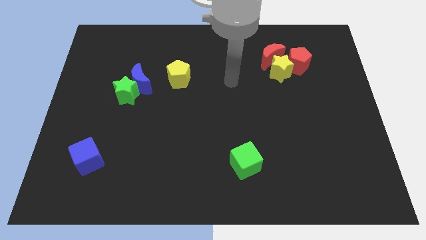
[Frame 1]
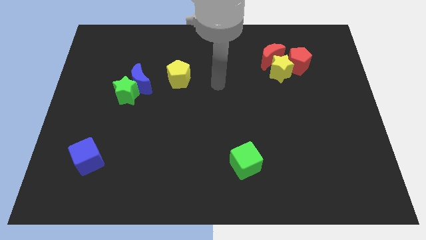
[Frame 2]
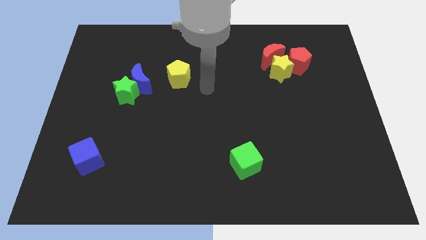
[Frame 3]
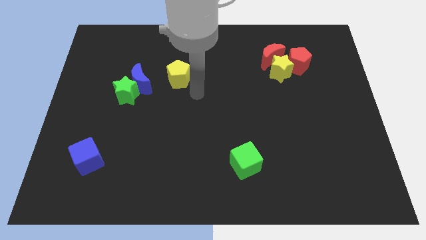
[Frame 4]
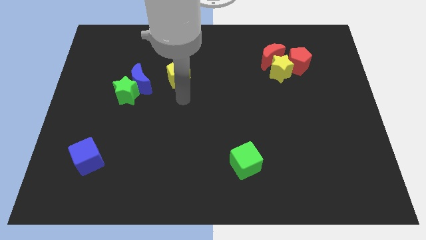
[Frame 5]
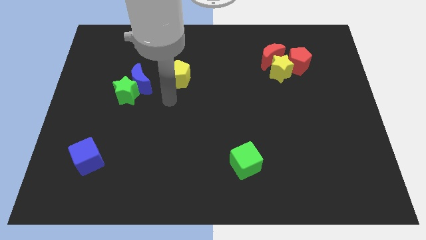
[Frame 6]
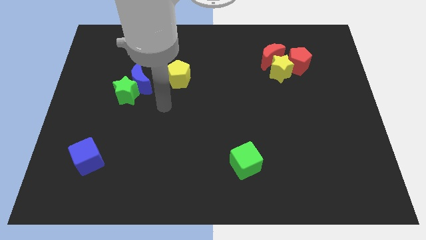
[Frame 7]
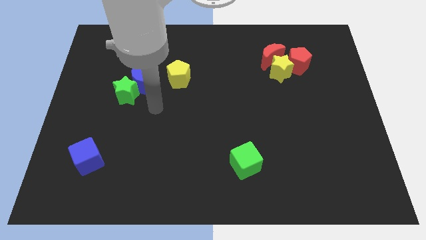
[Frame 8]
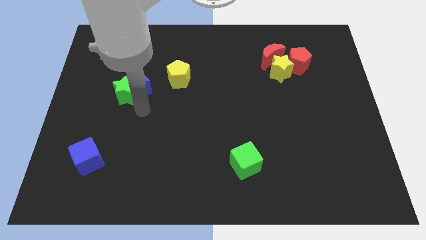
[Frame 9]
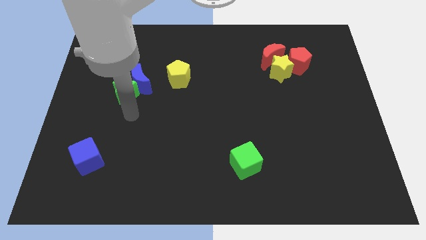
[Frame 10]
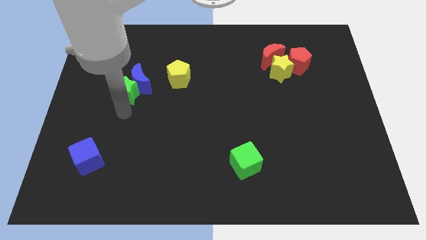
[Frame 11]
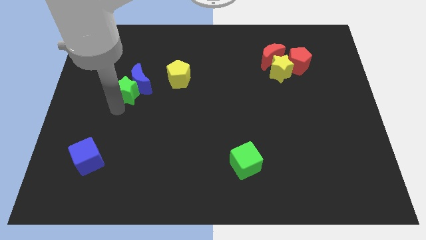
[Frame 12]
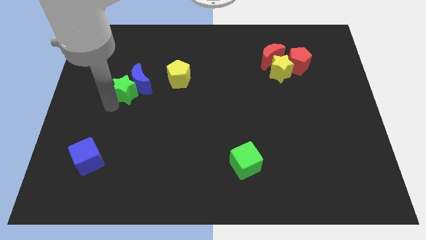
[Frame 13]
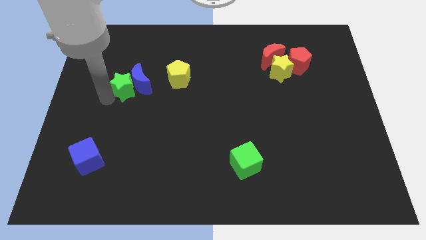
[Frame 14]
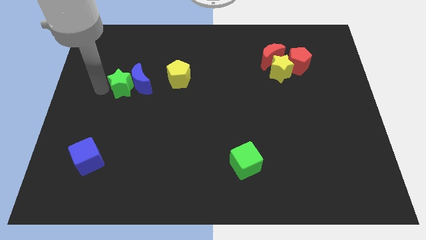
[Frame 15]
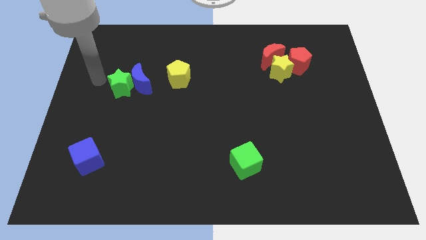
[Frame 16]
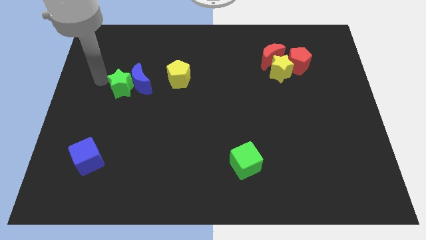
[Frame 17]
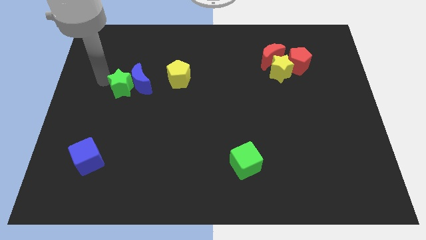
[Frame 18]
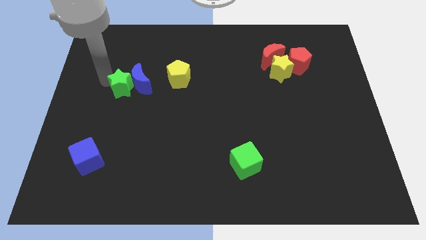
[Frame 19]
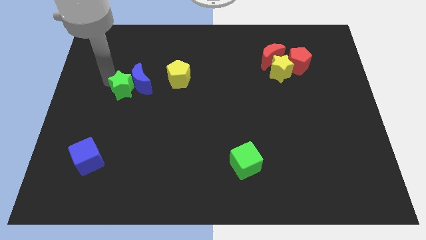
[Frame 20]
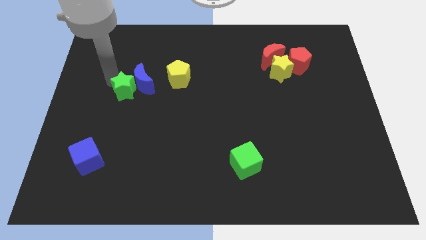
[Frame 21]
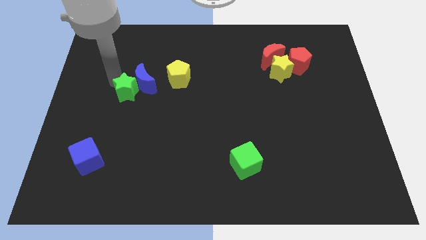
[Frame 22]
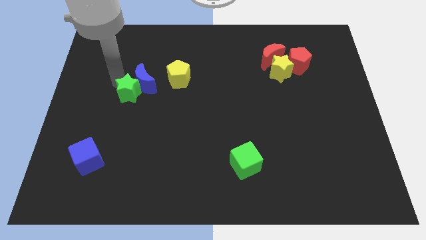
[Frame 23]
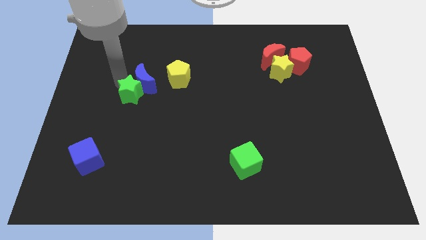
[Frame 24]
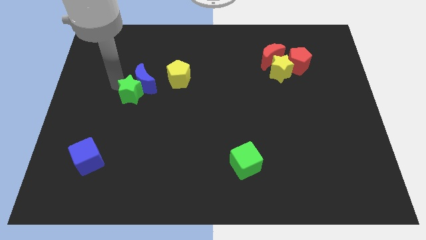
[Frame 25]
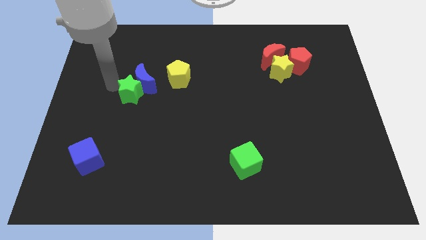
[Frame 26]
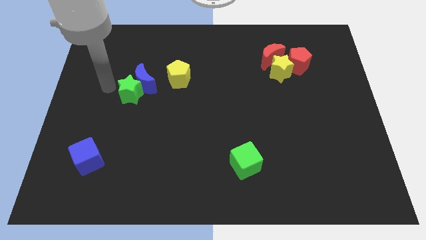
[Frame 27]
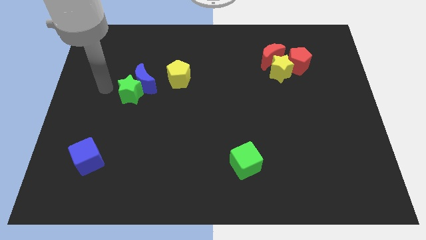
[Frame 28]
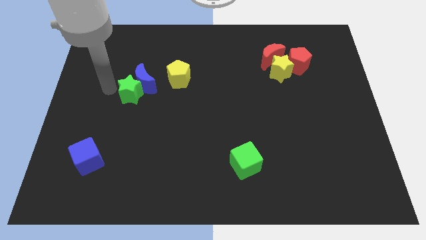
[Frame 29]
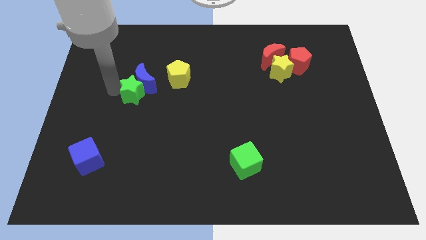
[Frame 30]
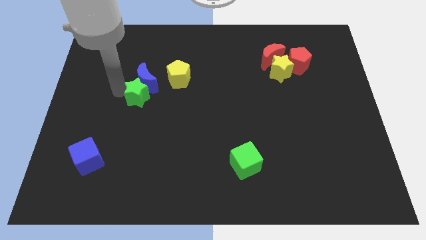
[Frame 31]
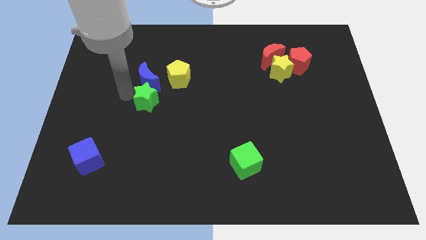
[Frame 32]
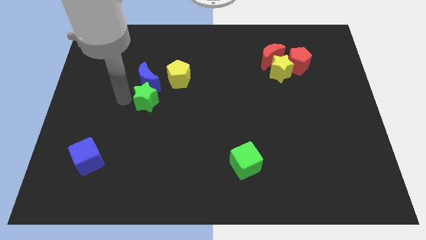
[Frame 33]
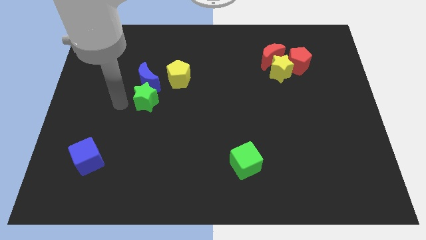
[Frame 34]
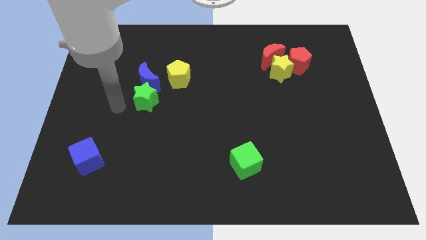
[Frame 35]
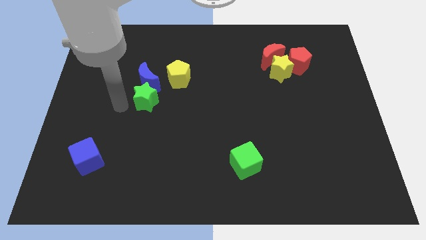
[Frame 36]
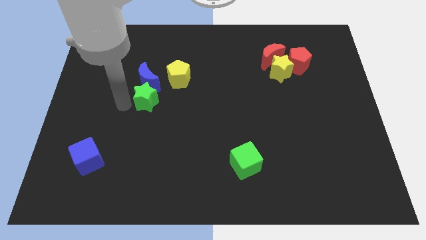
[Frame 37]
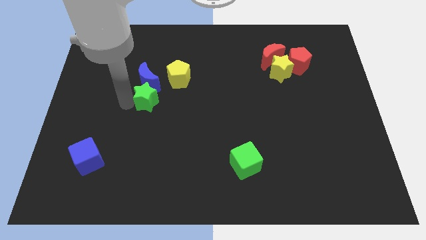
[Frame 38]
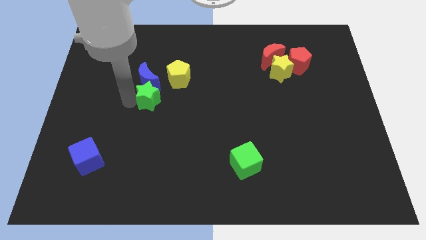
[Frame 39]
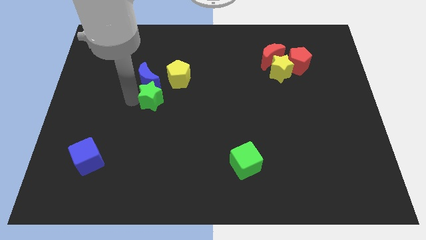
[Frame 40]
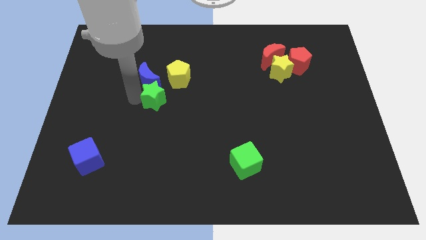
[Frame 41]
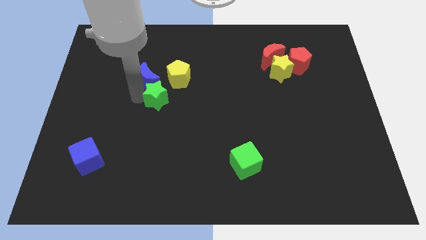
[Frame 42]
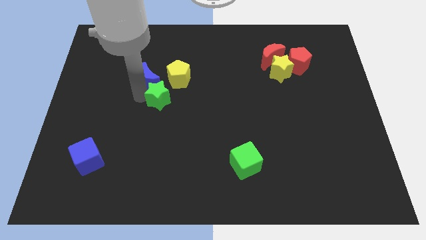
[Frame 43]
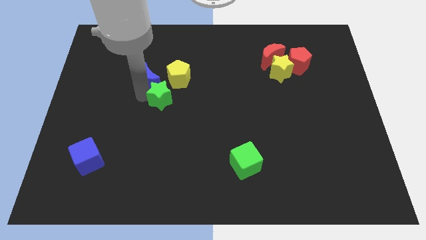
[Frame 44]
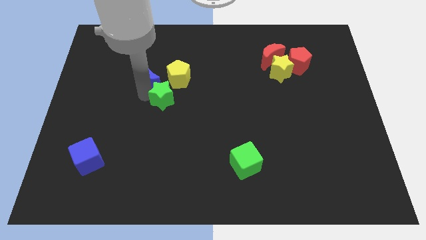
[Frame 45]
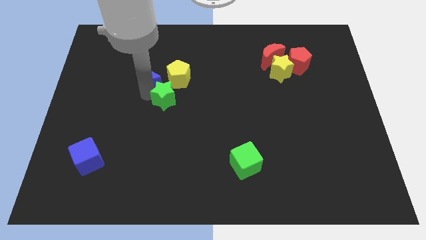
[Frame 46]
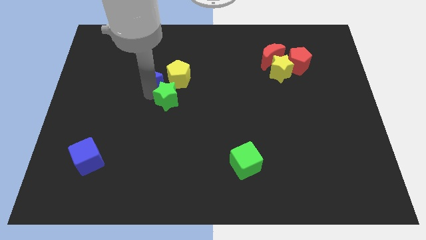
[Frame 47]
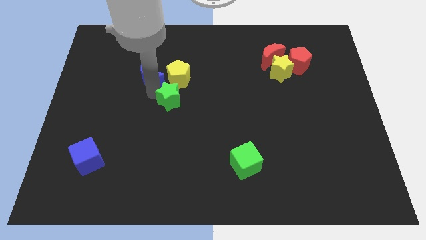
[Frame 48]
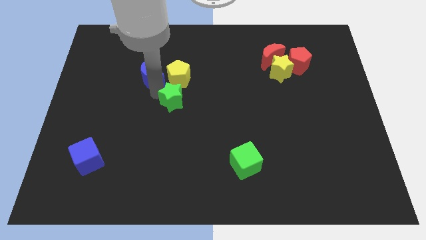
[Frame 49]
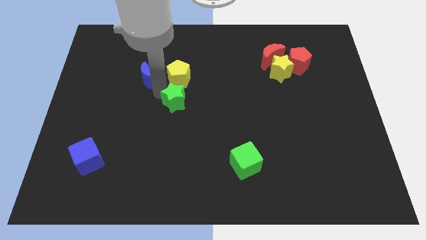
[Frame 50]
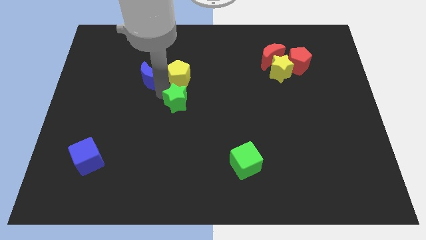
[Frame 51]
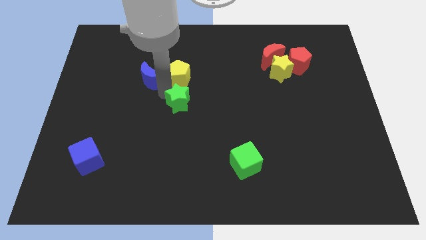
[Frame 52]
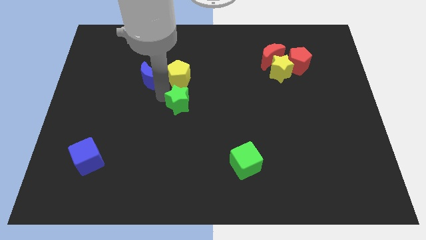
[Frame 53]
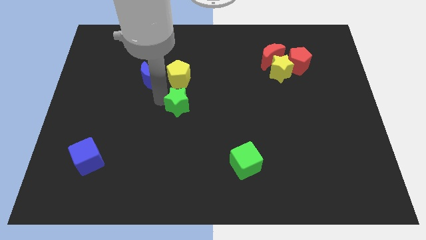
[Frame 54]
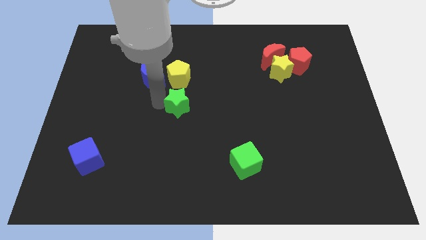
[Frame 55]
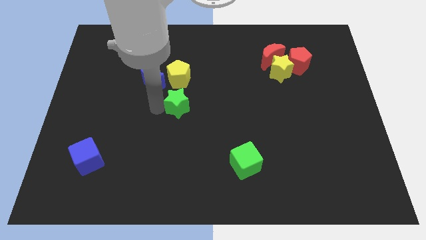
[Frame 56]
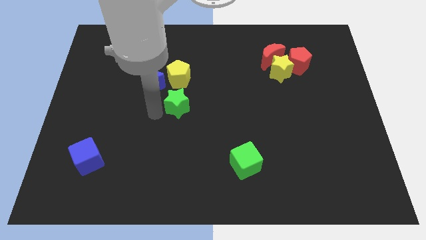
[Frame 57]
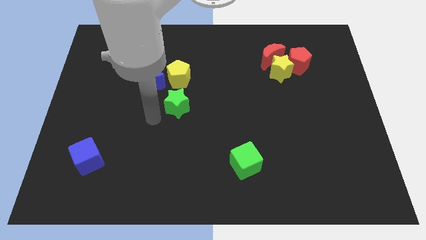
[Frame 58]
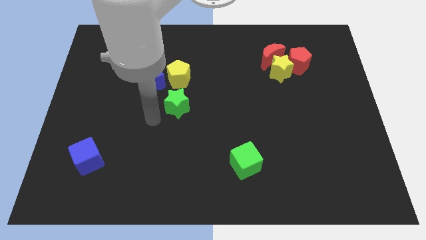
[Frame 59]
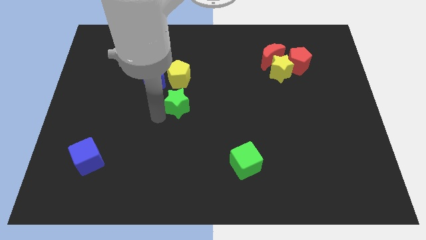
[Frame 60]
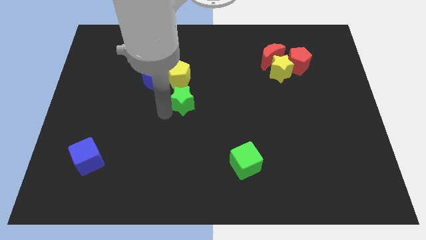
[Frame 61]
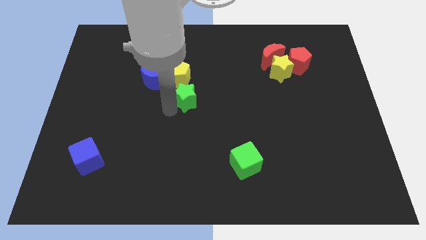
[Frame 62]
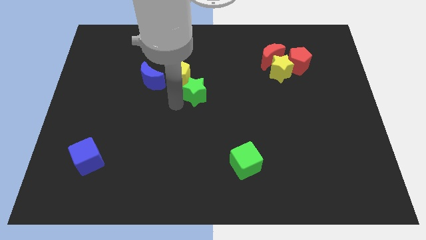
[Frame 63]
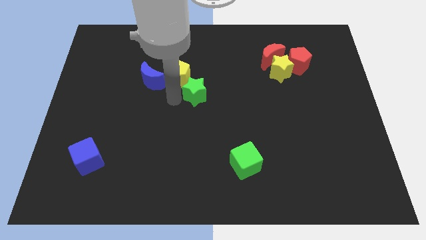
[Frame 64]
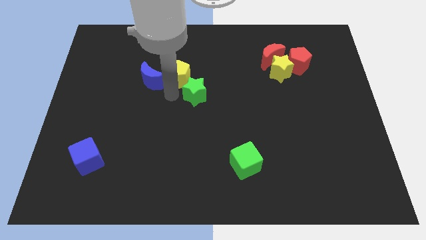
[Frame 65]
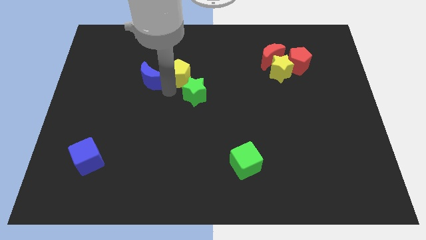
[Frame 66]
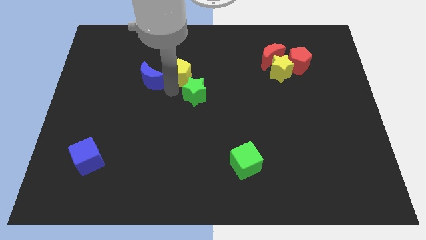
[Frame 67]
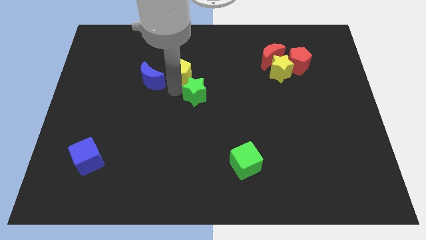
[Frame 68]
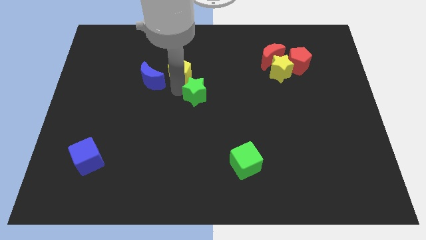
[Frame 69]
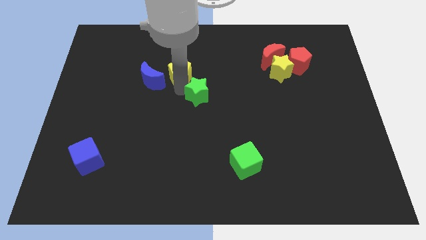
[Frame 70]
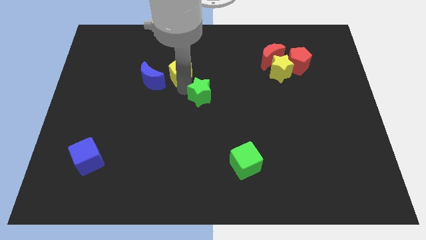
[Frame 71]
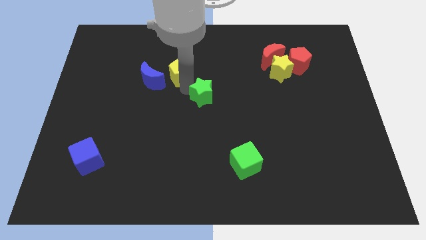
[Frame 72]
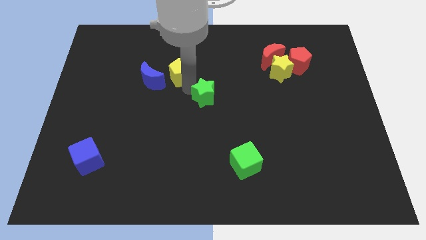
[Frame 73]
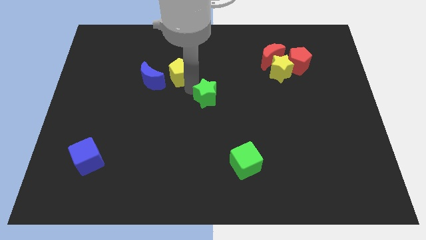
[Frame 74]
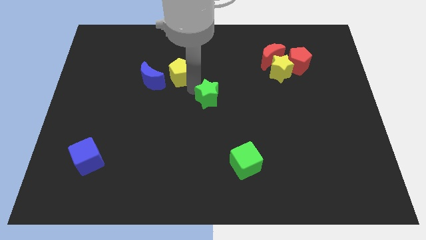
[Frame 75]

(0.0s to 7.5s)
move the green star right
